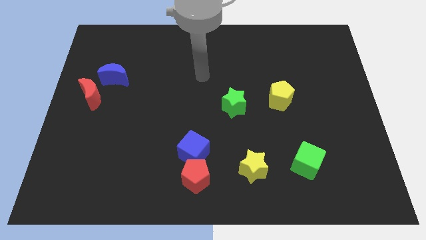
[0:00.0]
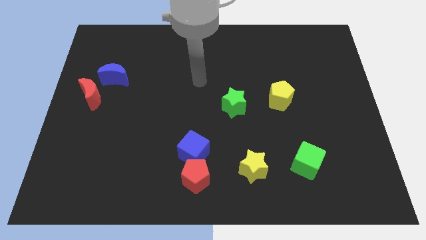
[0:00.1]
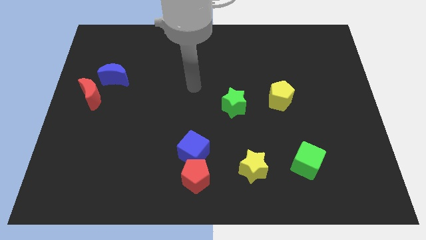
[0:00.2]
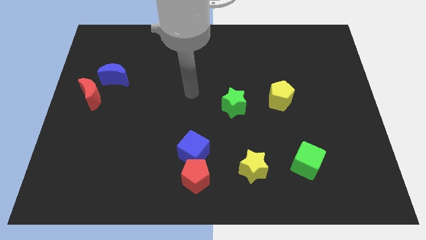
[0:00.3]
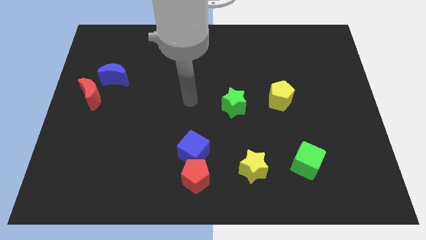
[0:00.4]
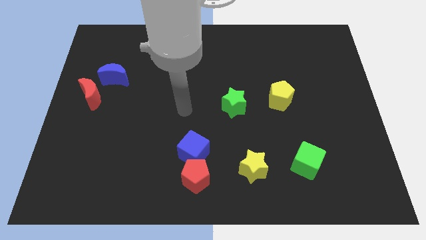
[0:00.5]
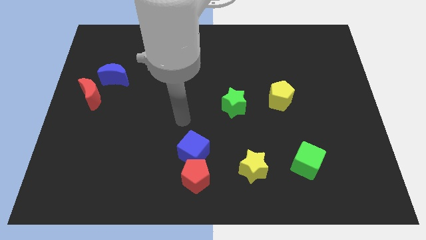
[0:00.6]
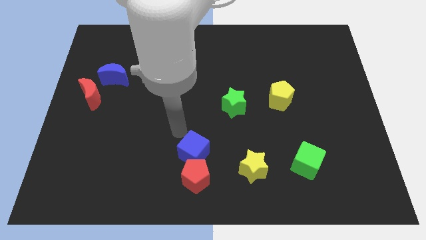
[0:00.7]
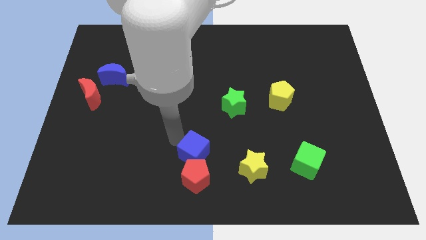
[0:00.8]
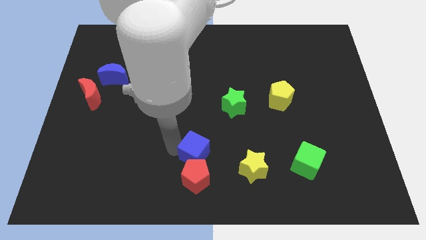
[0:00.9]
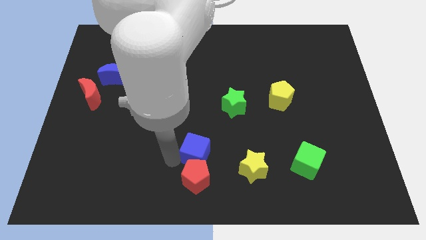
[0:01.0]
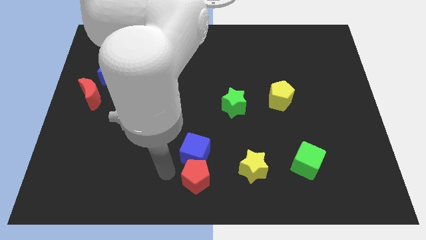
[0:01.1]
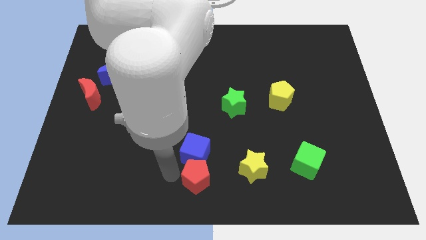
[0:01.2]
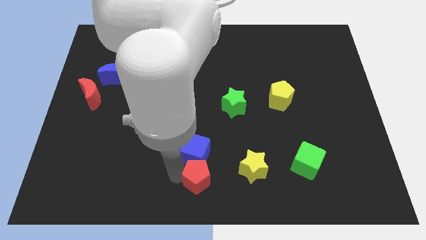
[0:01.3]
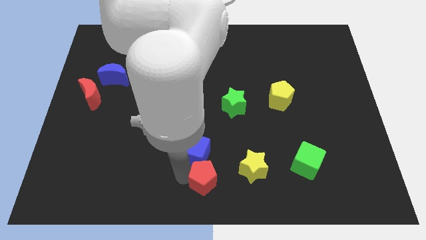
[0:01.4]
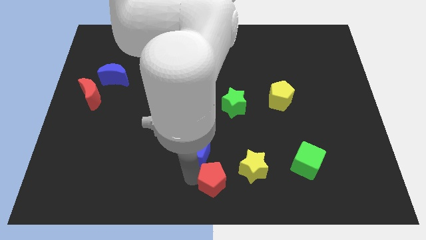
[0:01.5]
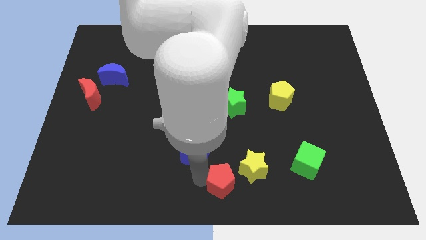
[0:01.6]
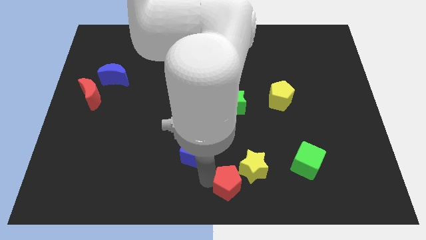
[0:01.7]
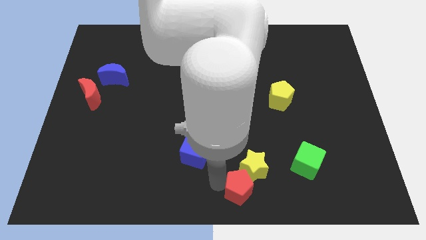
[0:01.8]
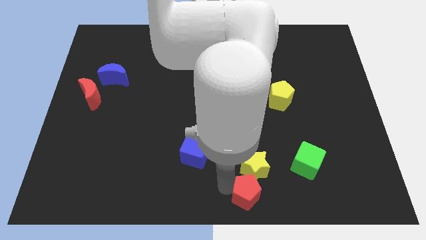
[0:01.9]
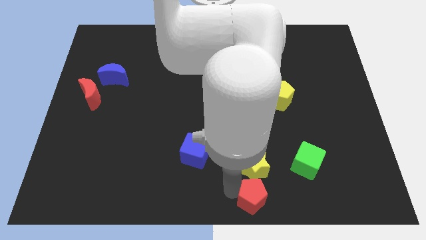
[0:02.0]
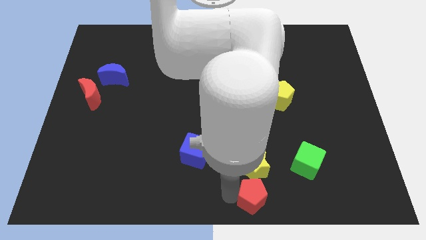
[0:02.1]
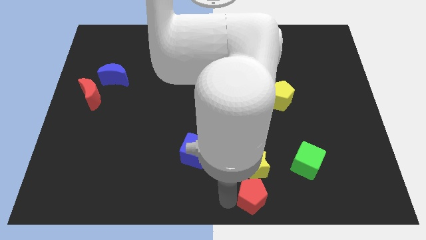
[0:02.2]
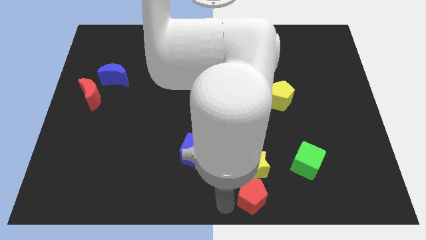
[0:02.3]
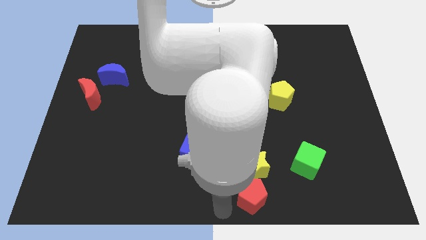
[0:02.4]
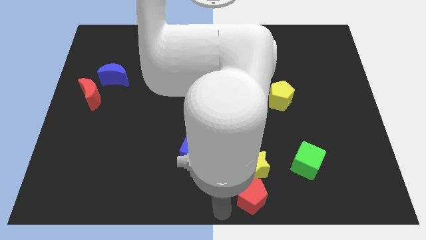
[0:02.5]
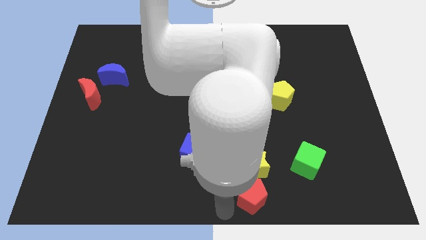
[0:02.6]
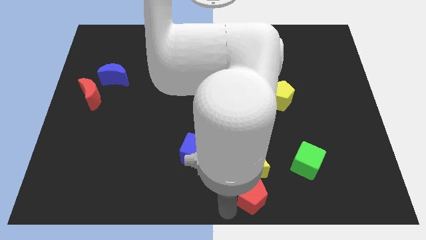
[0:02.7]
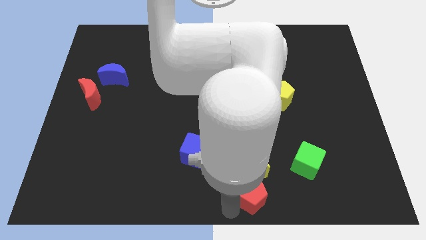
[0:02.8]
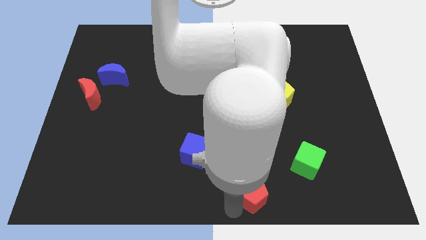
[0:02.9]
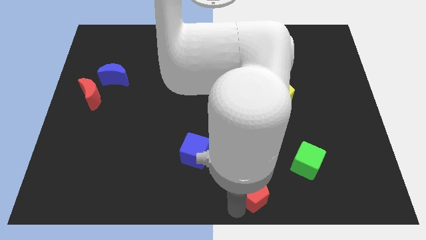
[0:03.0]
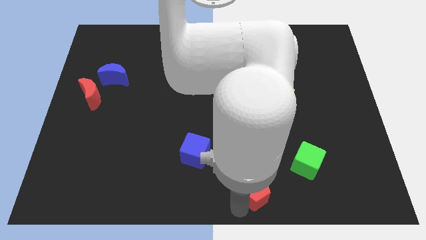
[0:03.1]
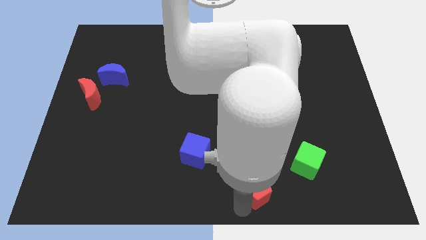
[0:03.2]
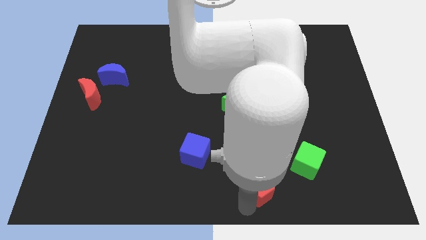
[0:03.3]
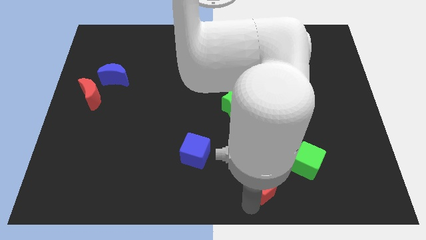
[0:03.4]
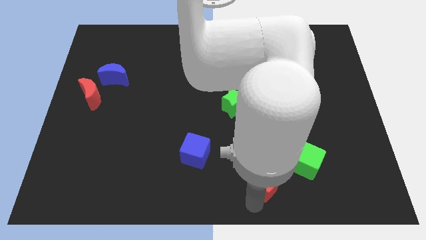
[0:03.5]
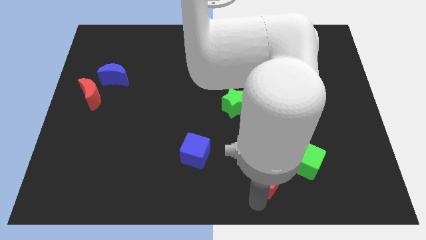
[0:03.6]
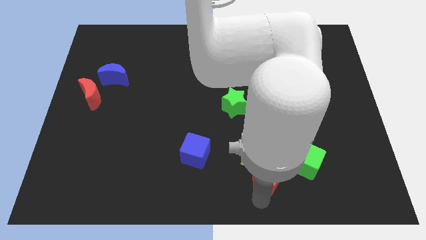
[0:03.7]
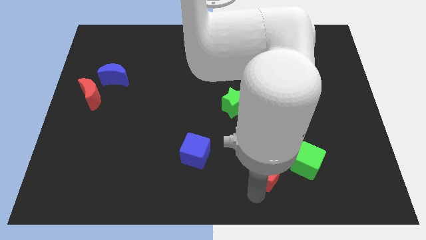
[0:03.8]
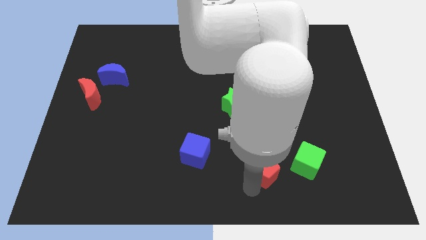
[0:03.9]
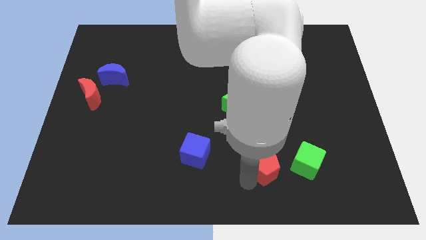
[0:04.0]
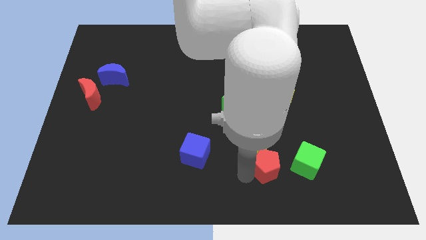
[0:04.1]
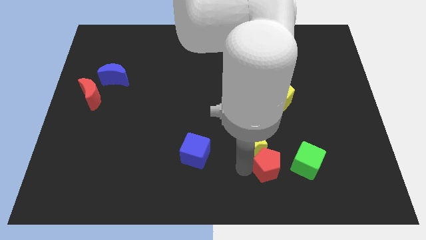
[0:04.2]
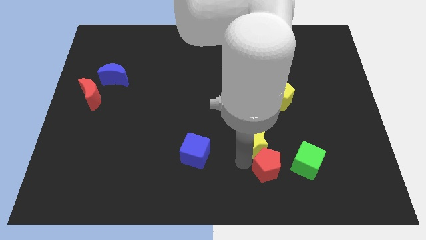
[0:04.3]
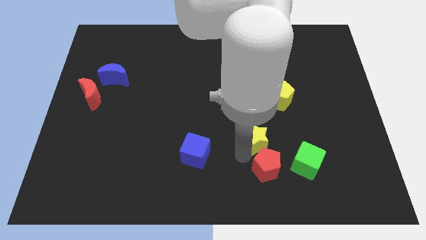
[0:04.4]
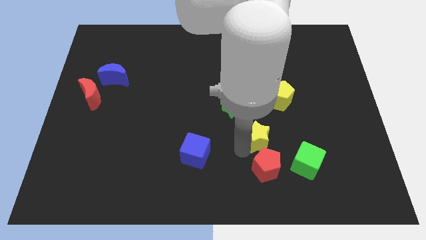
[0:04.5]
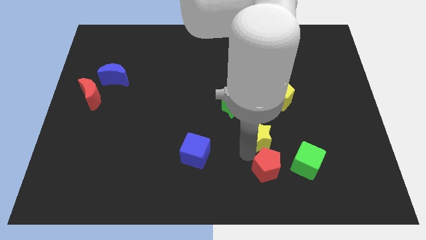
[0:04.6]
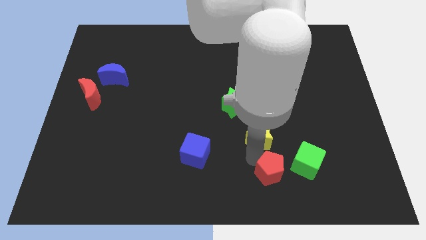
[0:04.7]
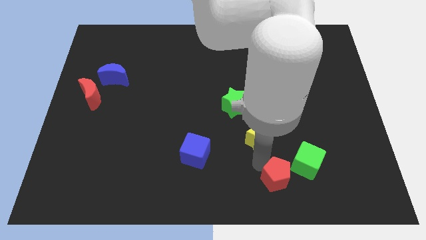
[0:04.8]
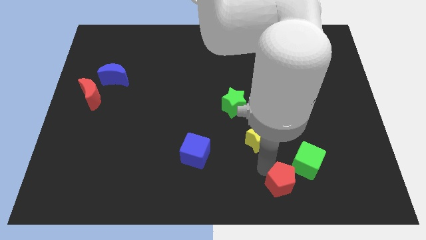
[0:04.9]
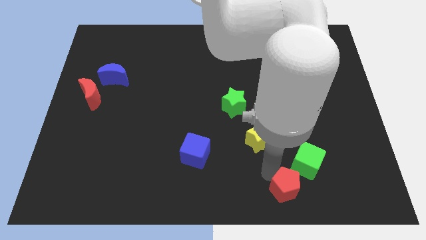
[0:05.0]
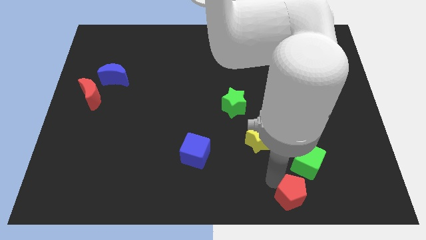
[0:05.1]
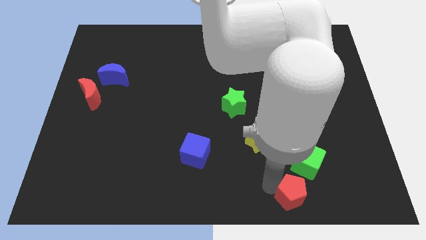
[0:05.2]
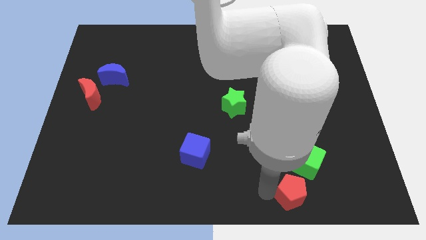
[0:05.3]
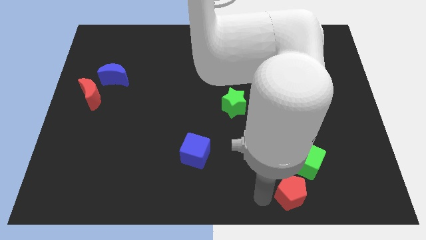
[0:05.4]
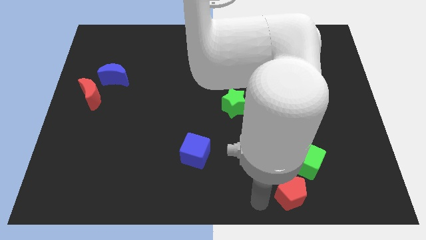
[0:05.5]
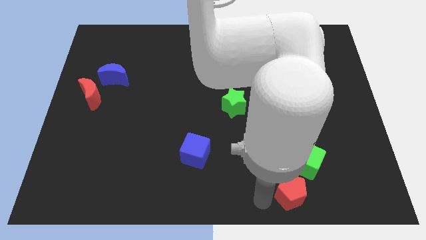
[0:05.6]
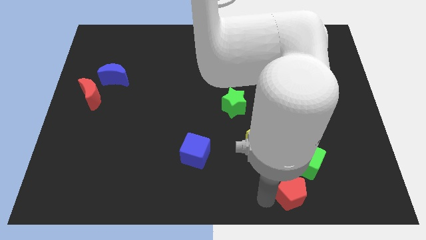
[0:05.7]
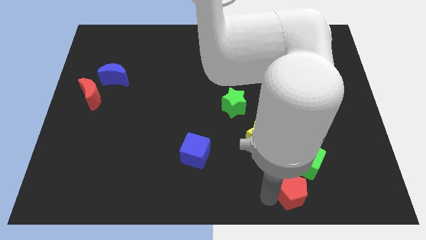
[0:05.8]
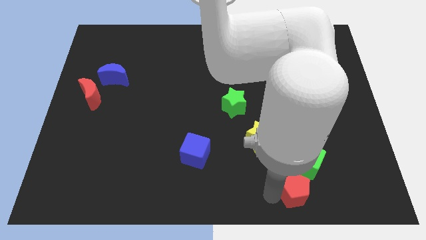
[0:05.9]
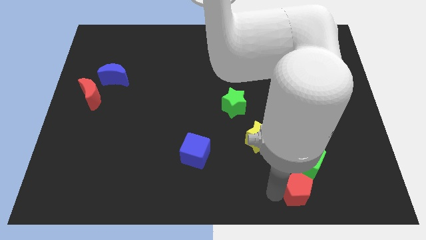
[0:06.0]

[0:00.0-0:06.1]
push the red pentagon right

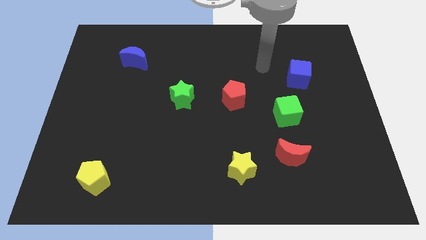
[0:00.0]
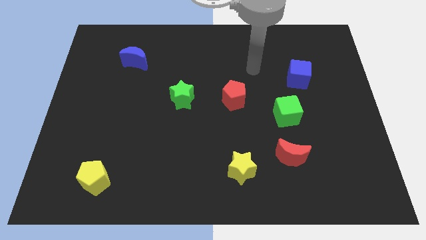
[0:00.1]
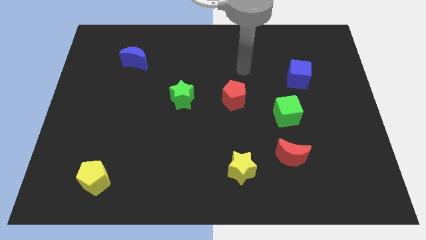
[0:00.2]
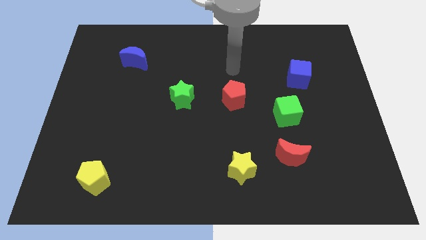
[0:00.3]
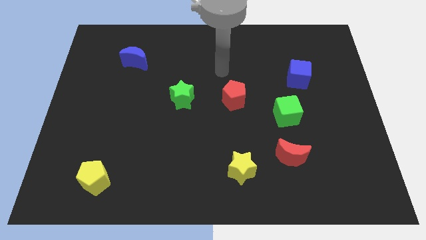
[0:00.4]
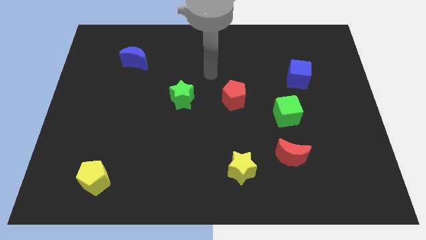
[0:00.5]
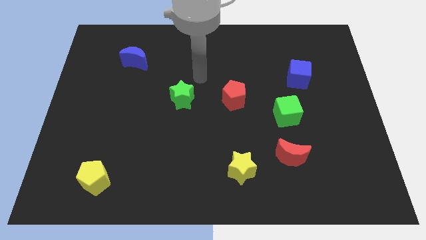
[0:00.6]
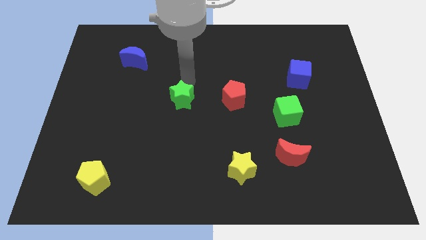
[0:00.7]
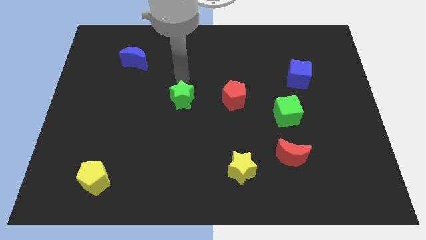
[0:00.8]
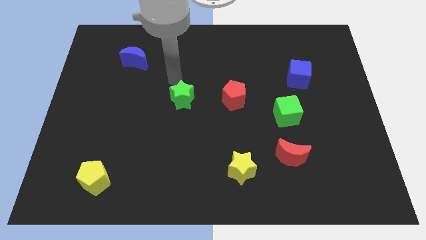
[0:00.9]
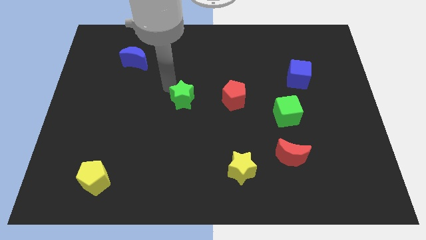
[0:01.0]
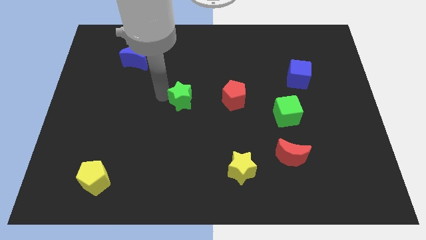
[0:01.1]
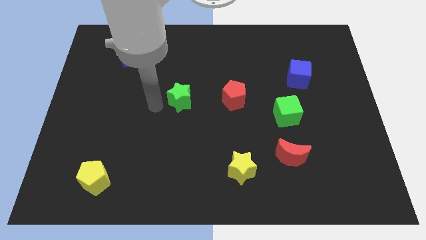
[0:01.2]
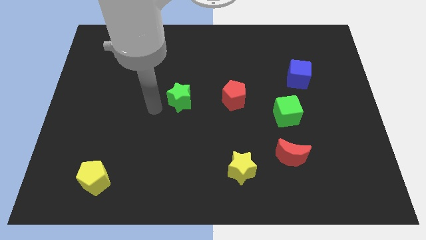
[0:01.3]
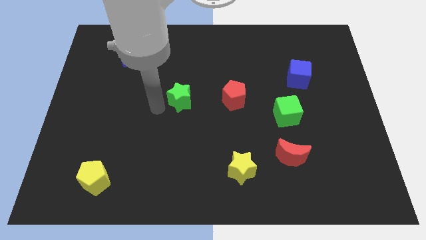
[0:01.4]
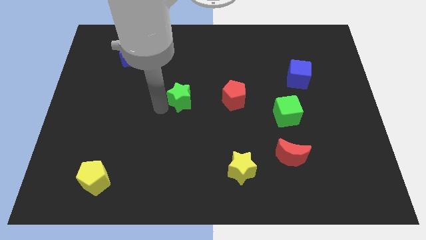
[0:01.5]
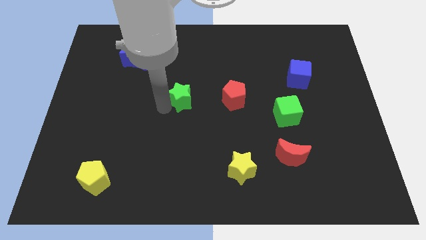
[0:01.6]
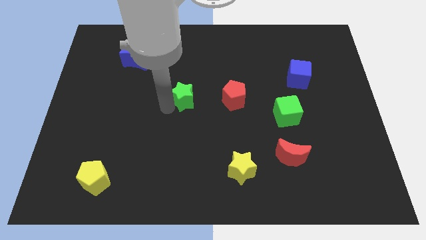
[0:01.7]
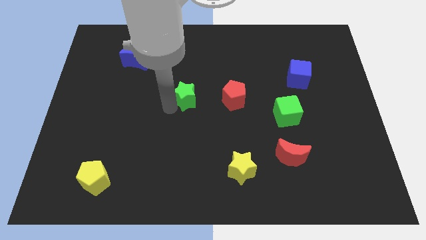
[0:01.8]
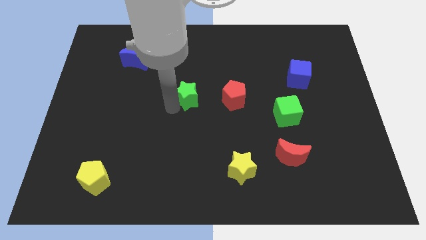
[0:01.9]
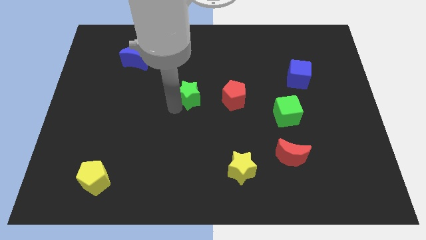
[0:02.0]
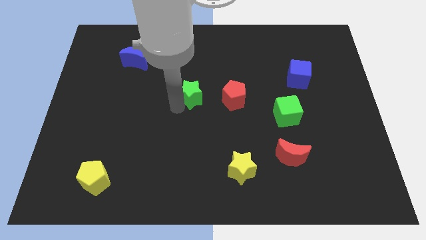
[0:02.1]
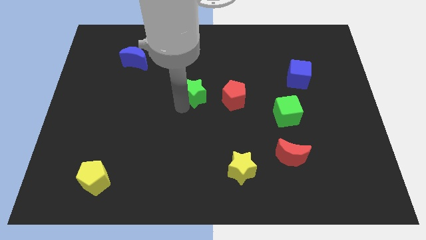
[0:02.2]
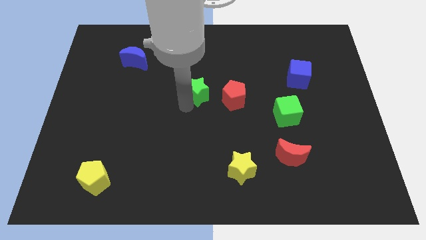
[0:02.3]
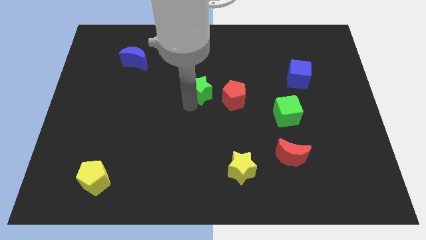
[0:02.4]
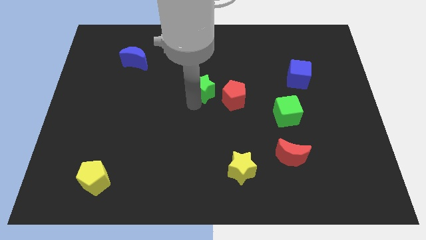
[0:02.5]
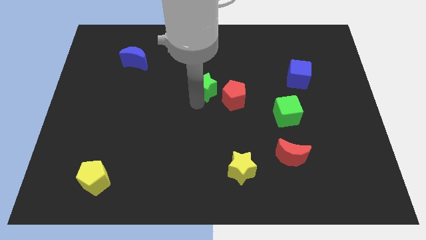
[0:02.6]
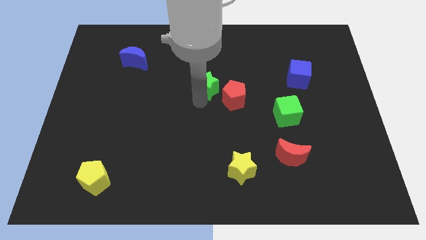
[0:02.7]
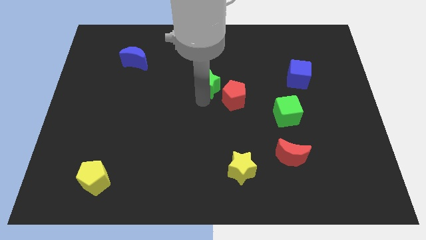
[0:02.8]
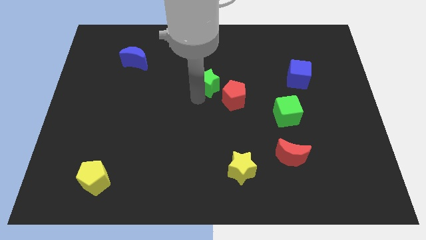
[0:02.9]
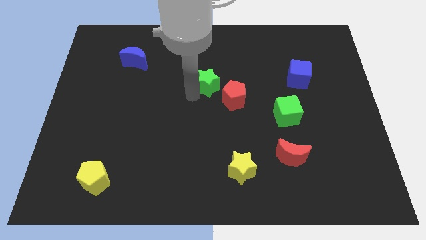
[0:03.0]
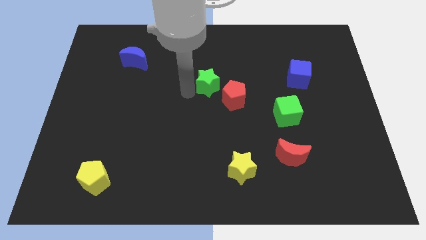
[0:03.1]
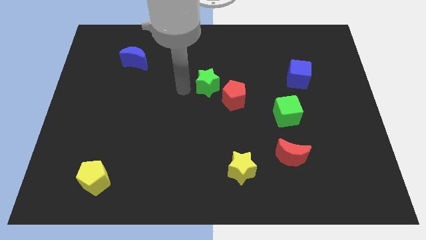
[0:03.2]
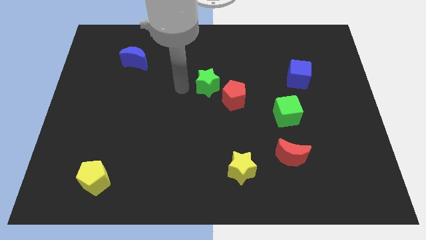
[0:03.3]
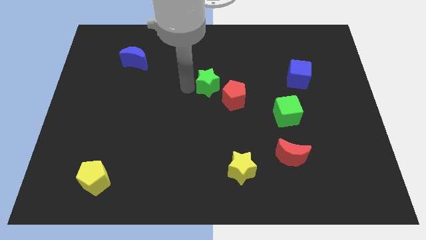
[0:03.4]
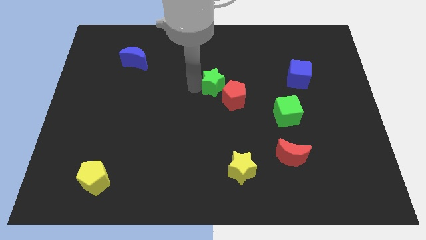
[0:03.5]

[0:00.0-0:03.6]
slightly move the green star right
